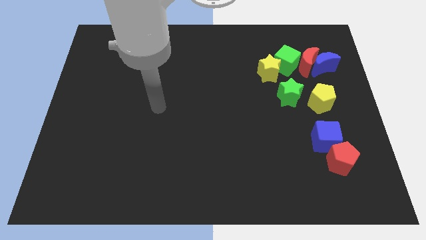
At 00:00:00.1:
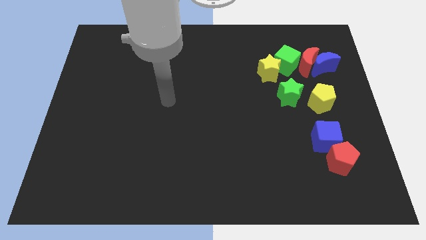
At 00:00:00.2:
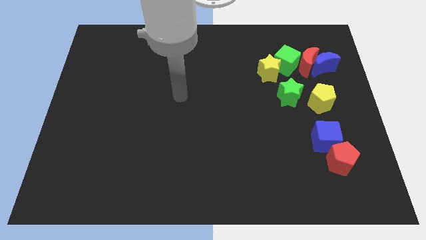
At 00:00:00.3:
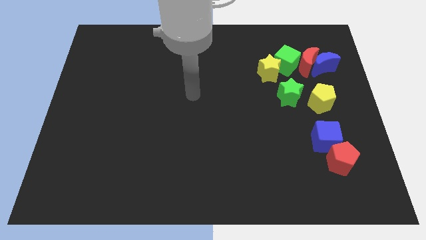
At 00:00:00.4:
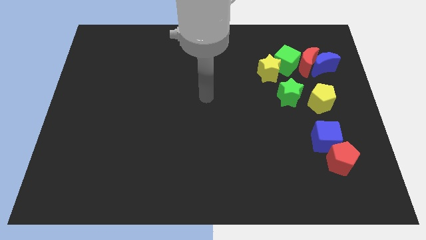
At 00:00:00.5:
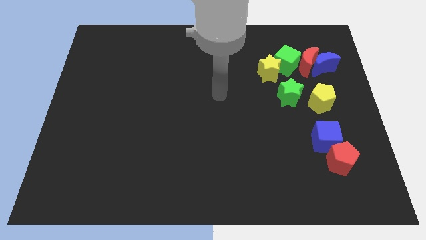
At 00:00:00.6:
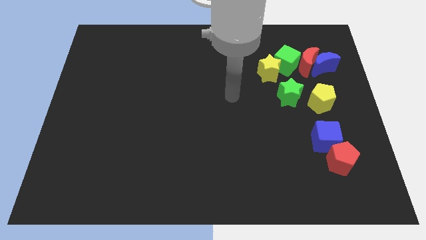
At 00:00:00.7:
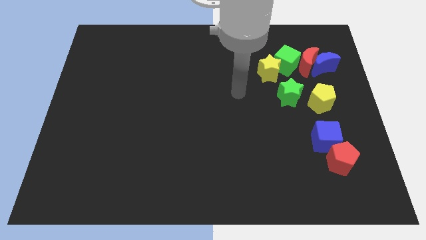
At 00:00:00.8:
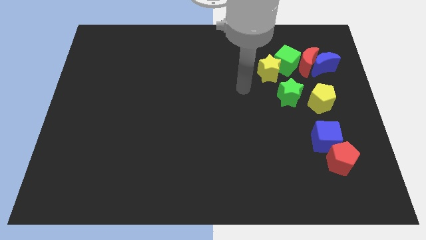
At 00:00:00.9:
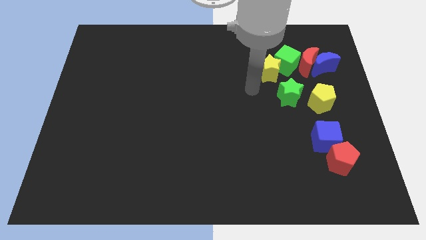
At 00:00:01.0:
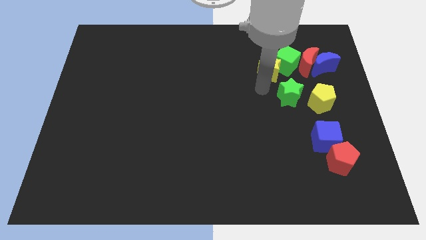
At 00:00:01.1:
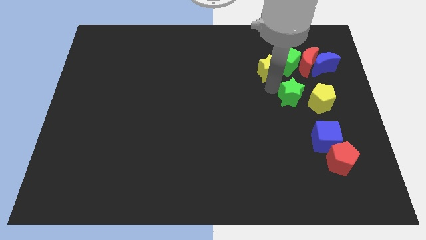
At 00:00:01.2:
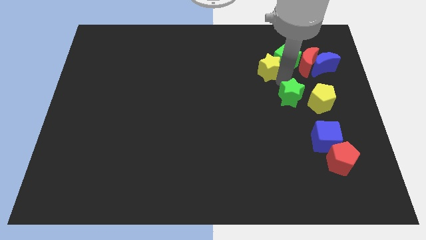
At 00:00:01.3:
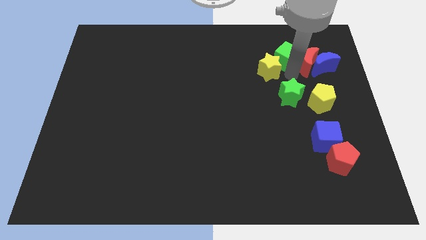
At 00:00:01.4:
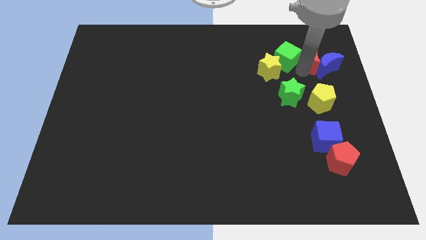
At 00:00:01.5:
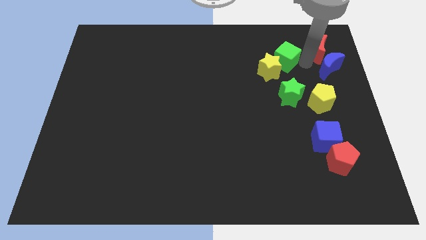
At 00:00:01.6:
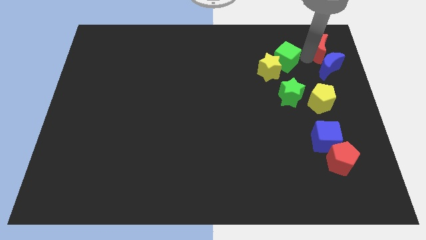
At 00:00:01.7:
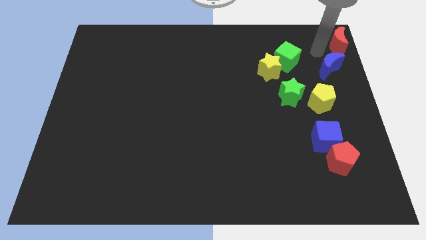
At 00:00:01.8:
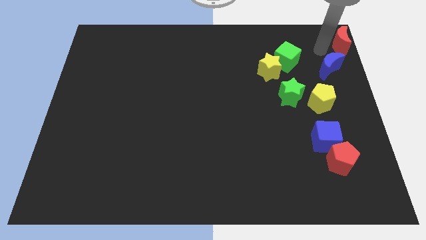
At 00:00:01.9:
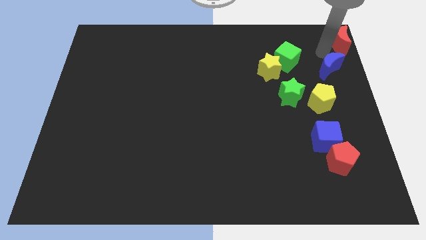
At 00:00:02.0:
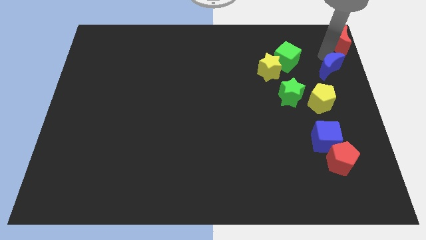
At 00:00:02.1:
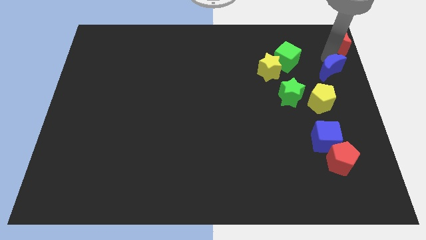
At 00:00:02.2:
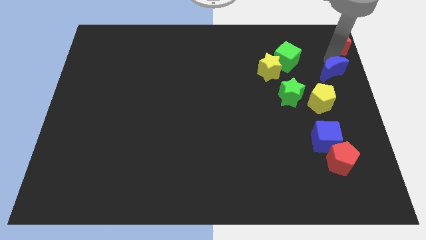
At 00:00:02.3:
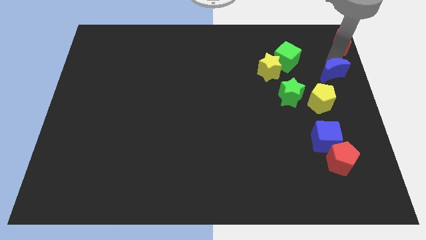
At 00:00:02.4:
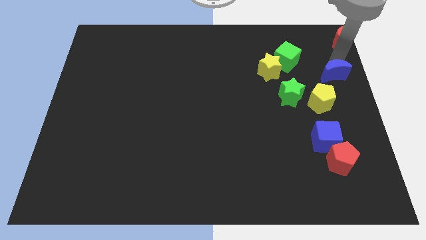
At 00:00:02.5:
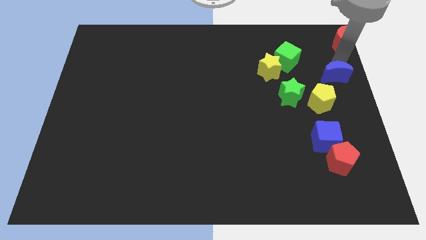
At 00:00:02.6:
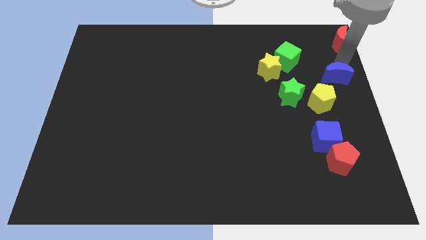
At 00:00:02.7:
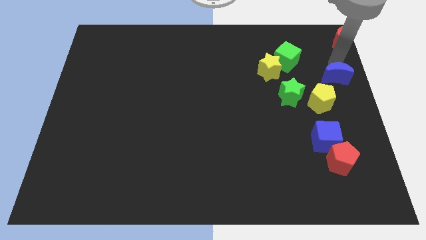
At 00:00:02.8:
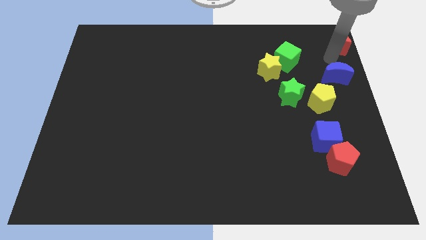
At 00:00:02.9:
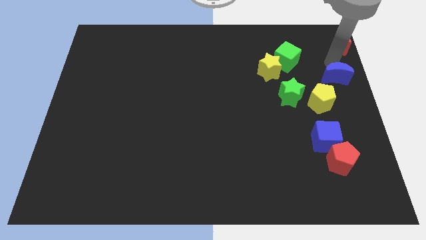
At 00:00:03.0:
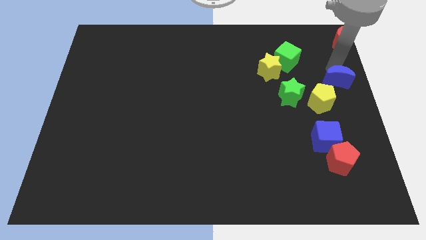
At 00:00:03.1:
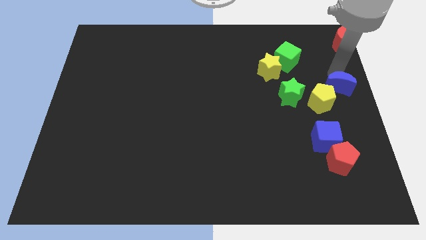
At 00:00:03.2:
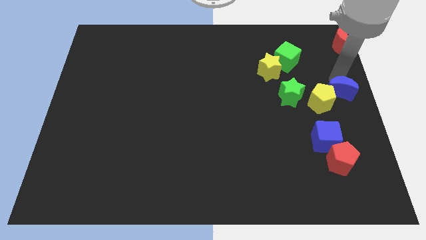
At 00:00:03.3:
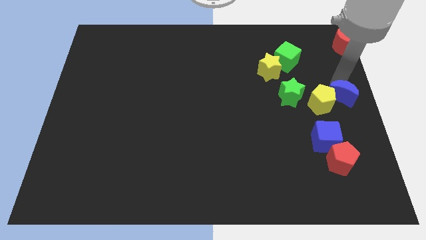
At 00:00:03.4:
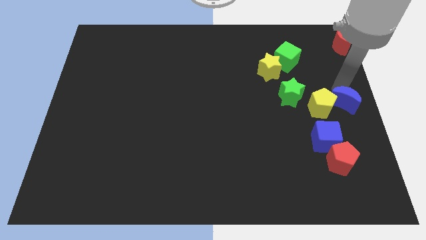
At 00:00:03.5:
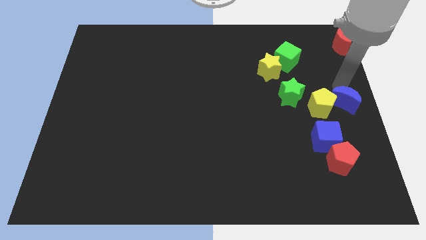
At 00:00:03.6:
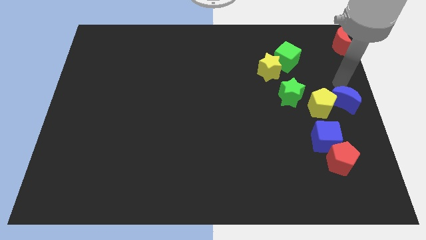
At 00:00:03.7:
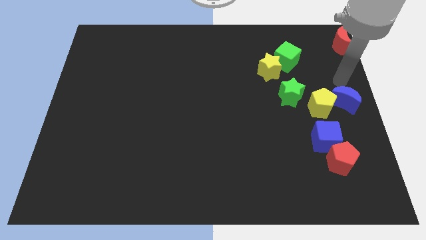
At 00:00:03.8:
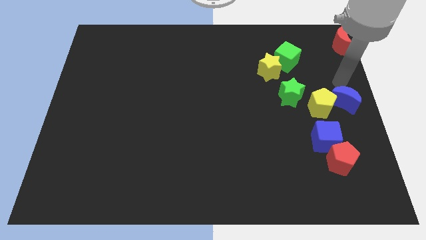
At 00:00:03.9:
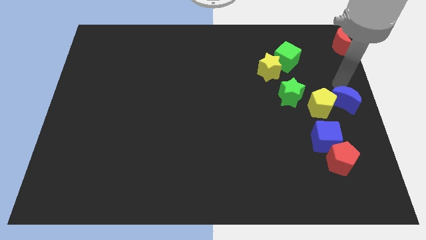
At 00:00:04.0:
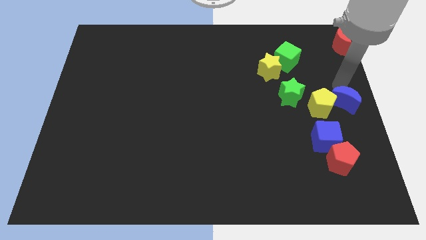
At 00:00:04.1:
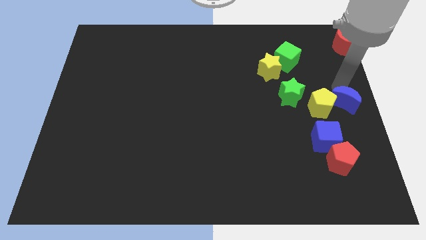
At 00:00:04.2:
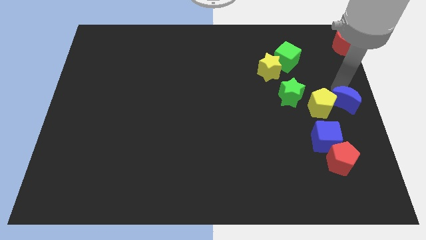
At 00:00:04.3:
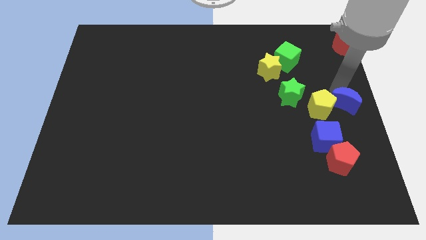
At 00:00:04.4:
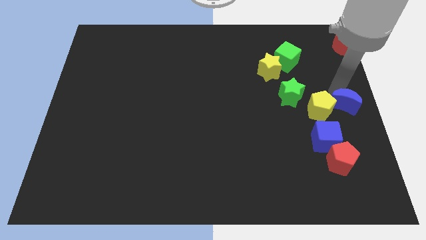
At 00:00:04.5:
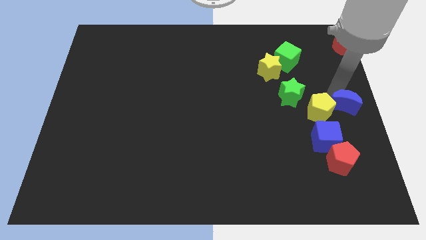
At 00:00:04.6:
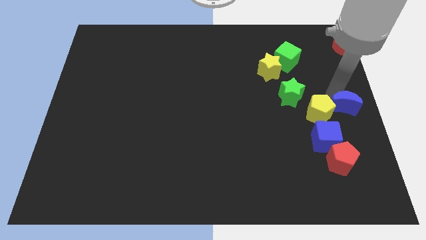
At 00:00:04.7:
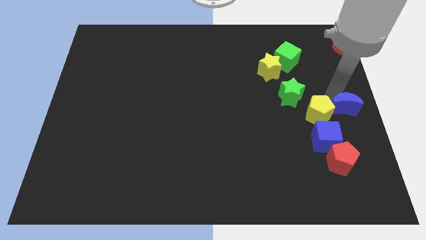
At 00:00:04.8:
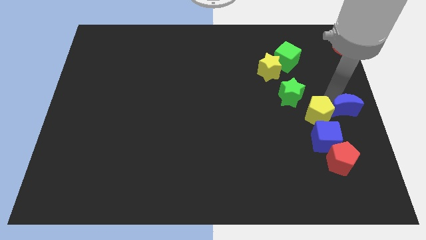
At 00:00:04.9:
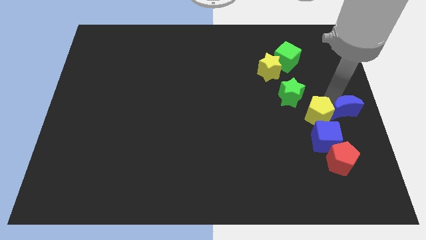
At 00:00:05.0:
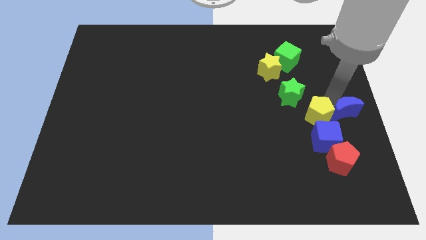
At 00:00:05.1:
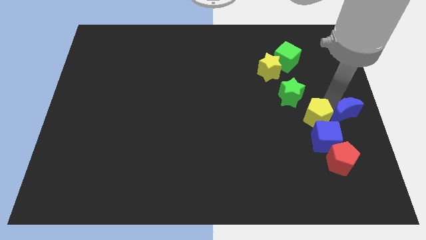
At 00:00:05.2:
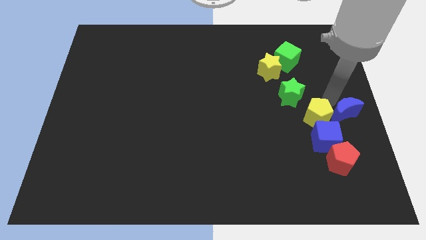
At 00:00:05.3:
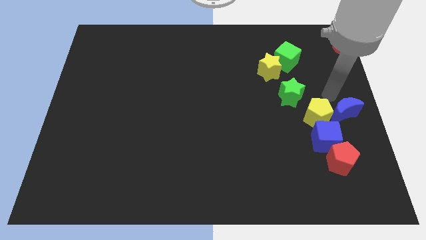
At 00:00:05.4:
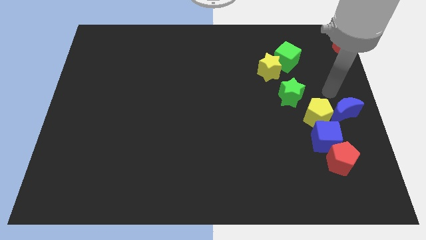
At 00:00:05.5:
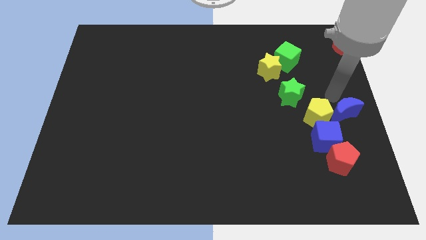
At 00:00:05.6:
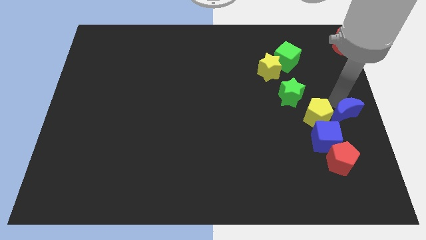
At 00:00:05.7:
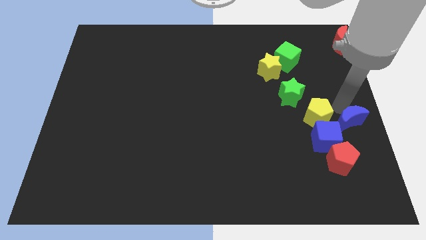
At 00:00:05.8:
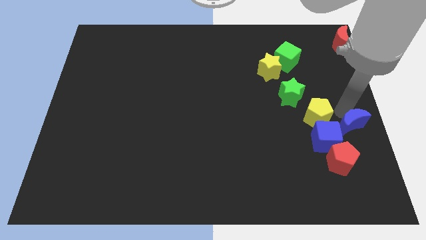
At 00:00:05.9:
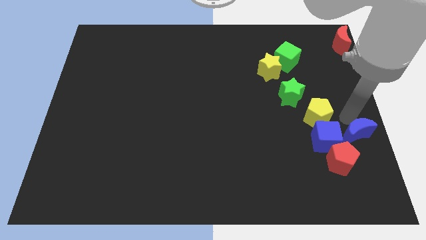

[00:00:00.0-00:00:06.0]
move the blue moon down

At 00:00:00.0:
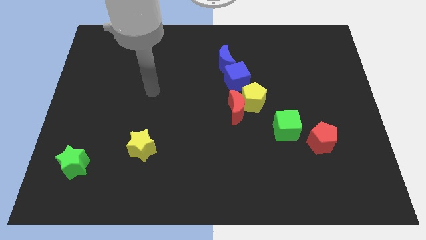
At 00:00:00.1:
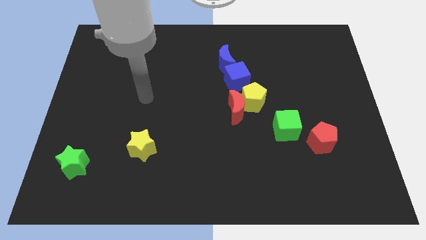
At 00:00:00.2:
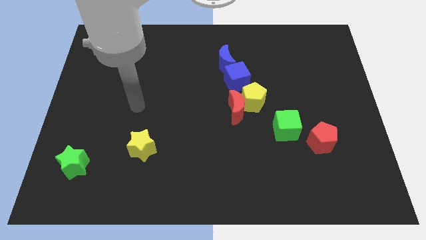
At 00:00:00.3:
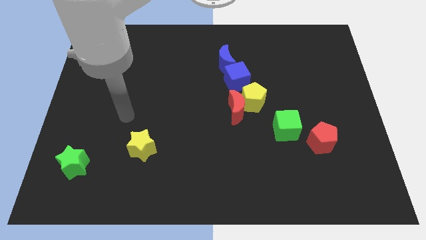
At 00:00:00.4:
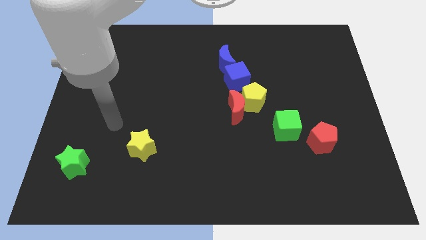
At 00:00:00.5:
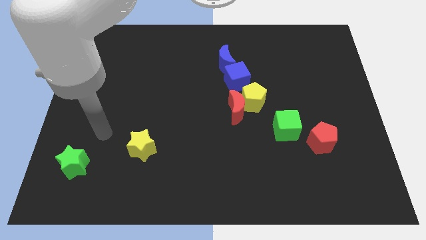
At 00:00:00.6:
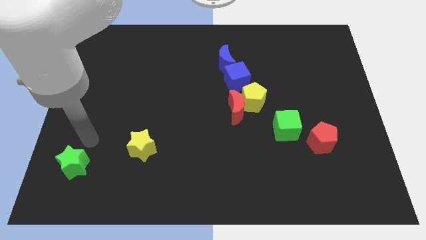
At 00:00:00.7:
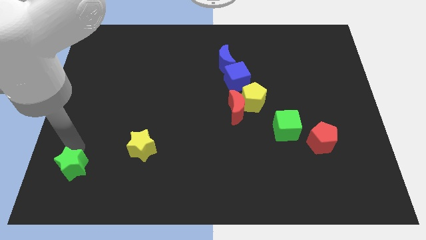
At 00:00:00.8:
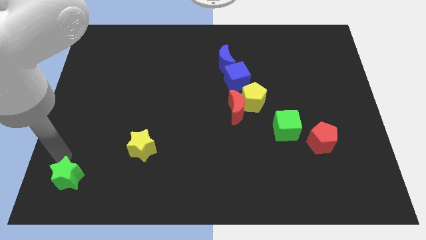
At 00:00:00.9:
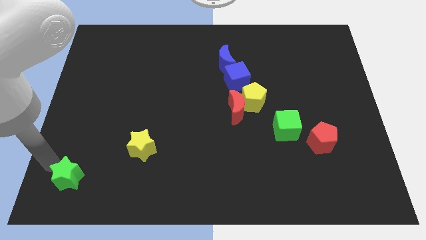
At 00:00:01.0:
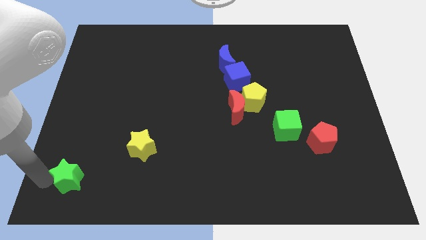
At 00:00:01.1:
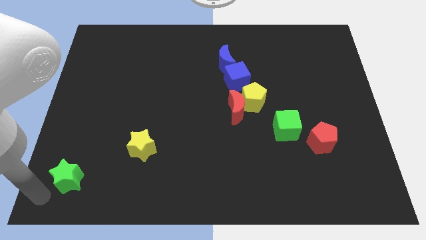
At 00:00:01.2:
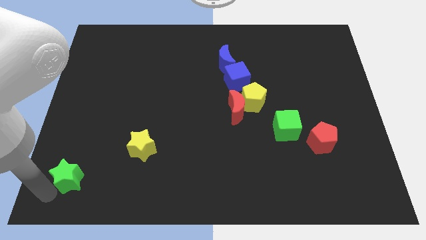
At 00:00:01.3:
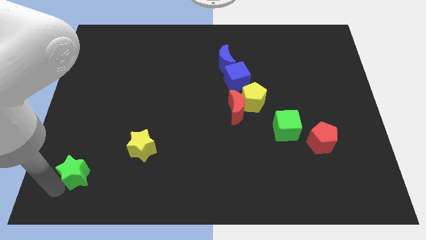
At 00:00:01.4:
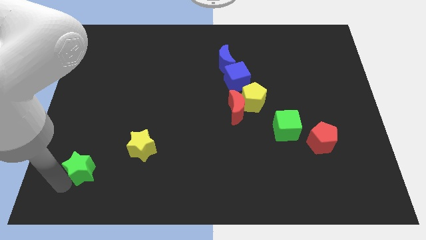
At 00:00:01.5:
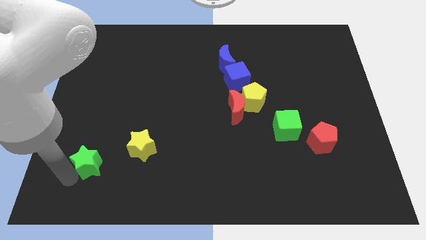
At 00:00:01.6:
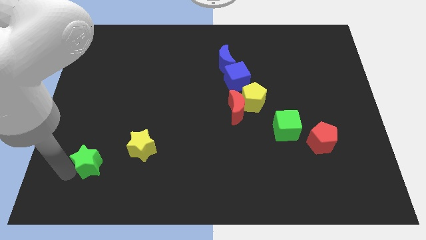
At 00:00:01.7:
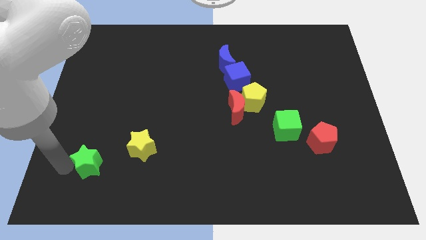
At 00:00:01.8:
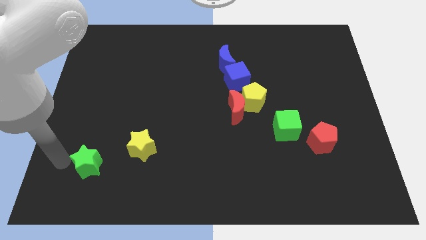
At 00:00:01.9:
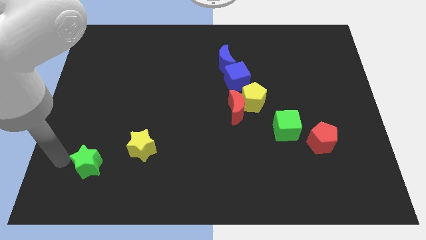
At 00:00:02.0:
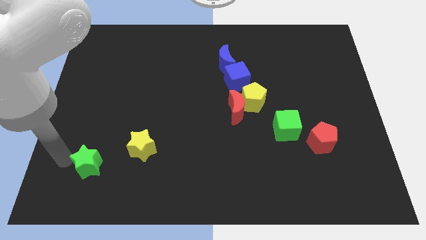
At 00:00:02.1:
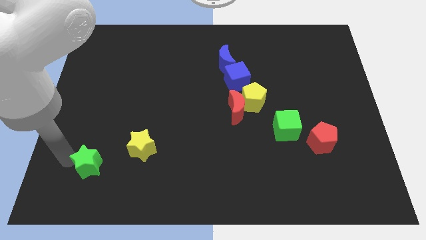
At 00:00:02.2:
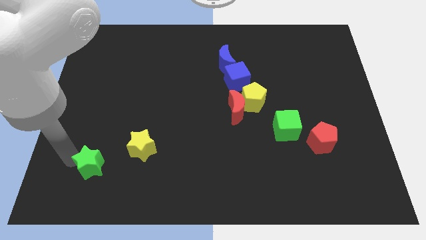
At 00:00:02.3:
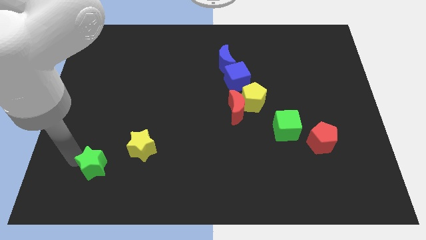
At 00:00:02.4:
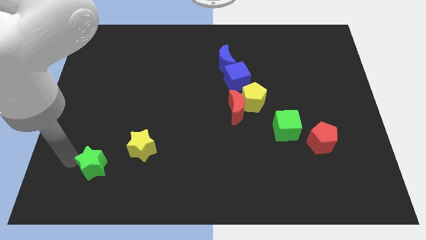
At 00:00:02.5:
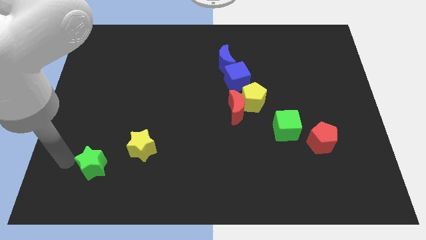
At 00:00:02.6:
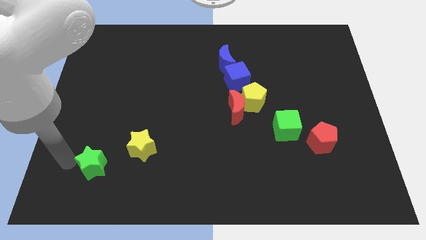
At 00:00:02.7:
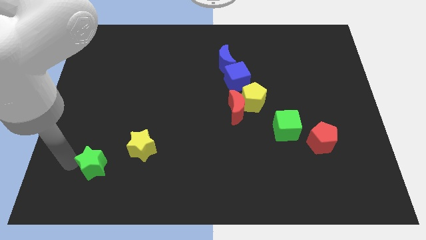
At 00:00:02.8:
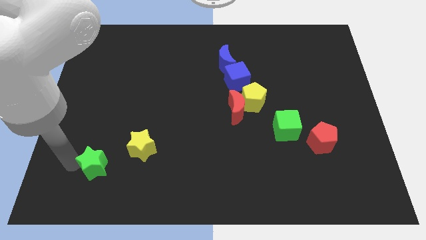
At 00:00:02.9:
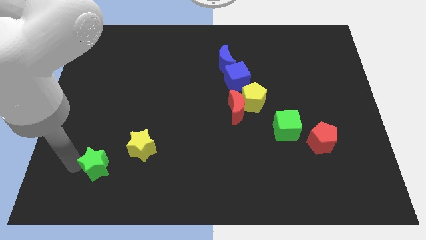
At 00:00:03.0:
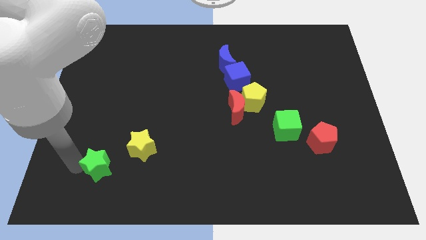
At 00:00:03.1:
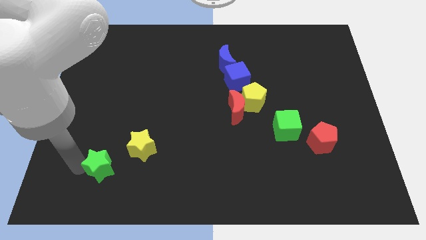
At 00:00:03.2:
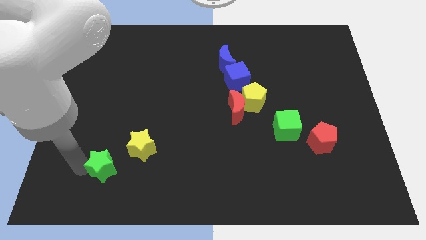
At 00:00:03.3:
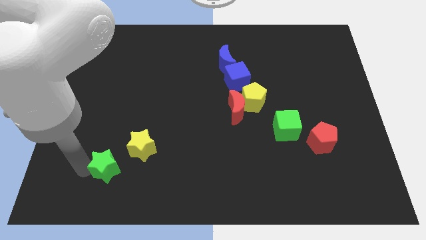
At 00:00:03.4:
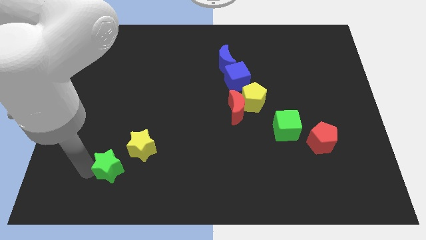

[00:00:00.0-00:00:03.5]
move the green star a little right
